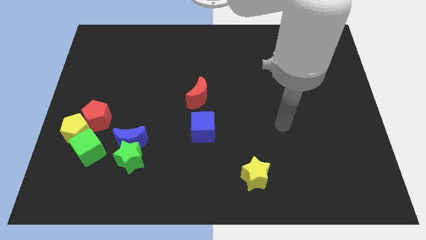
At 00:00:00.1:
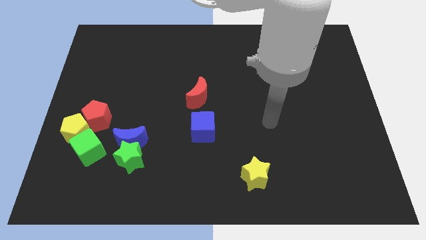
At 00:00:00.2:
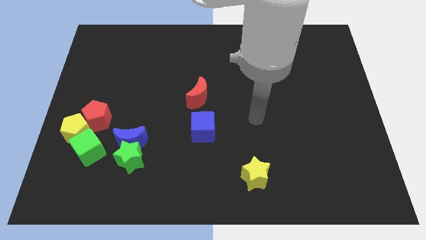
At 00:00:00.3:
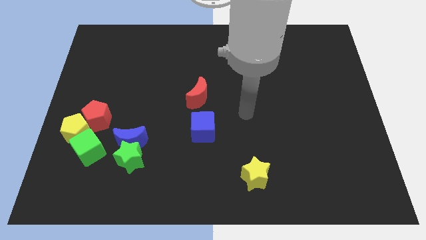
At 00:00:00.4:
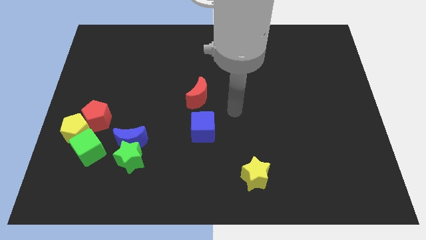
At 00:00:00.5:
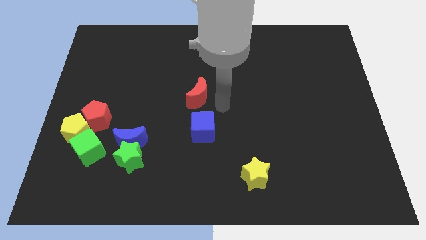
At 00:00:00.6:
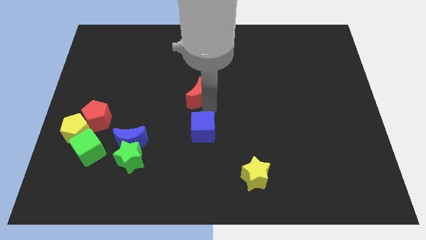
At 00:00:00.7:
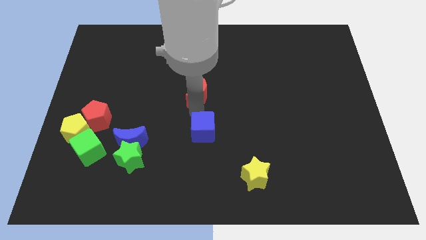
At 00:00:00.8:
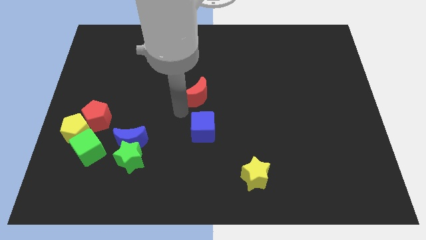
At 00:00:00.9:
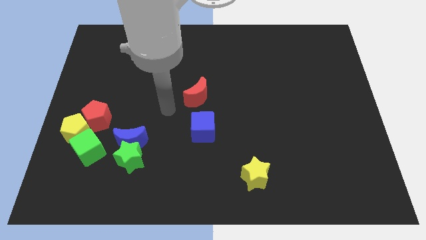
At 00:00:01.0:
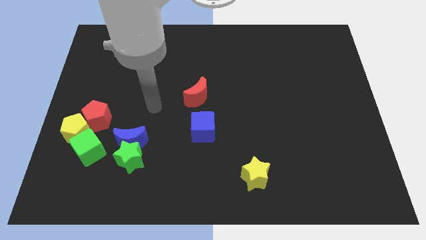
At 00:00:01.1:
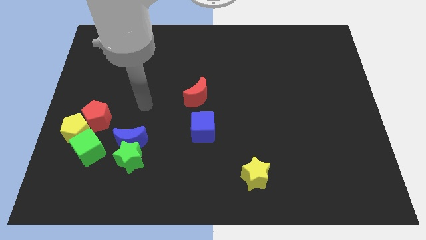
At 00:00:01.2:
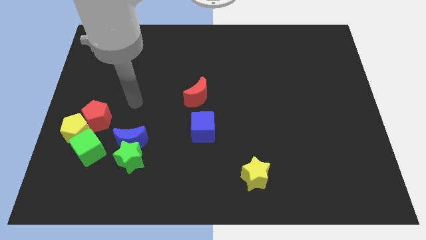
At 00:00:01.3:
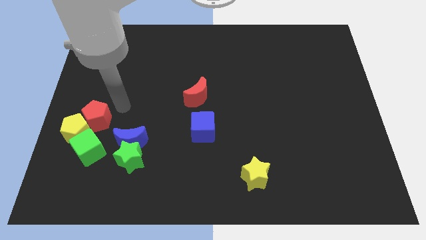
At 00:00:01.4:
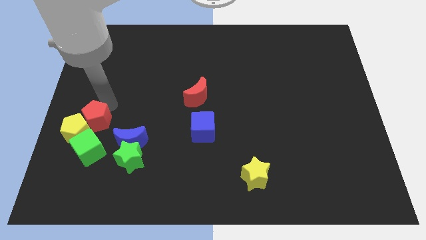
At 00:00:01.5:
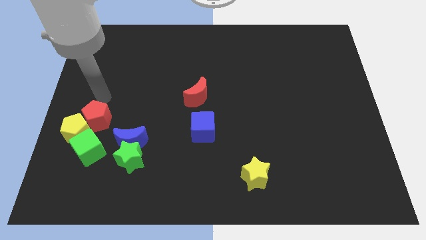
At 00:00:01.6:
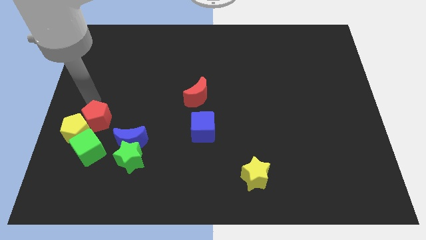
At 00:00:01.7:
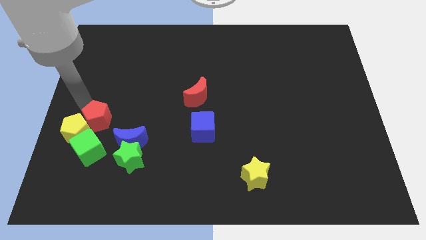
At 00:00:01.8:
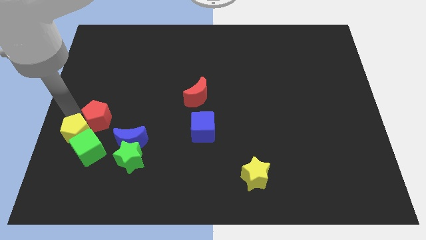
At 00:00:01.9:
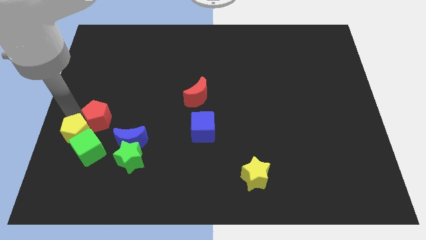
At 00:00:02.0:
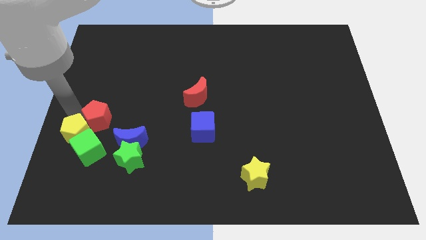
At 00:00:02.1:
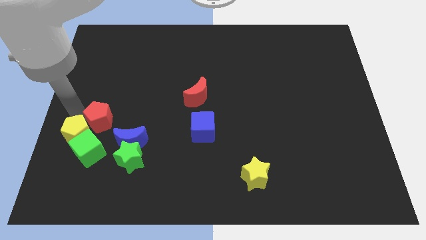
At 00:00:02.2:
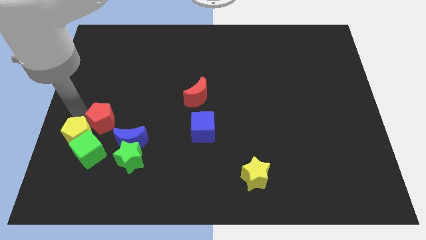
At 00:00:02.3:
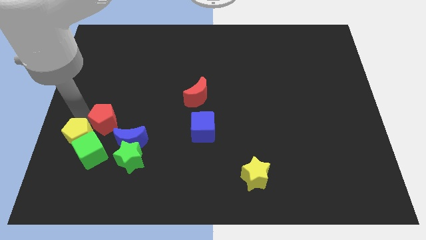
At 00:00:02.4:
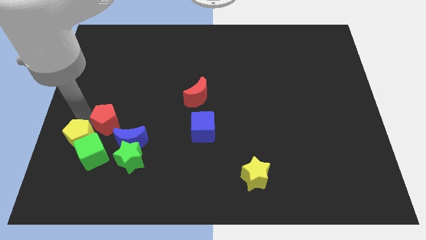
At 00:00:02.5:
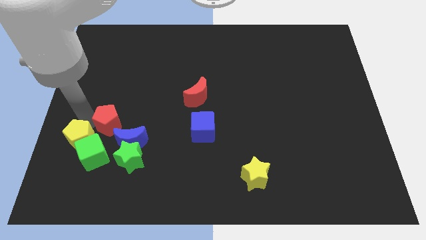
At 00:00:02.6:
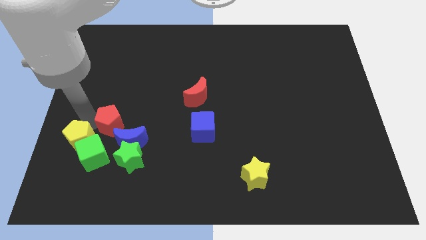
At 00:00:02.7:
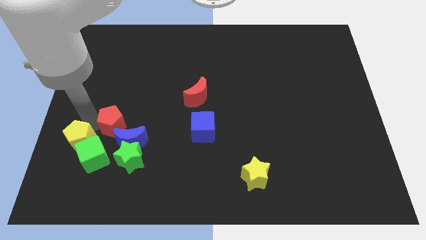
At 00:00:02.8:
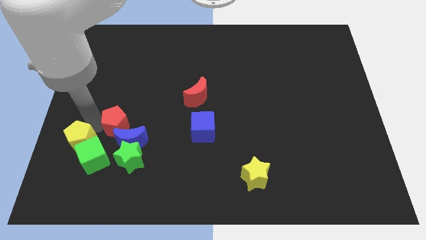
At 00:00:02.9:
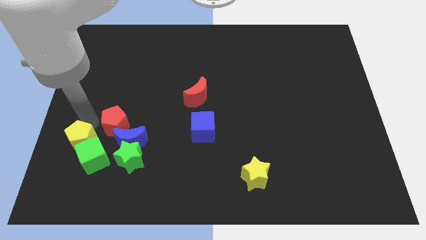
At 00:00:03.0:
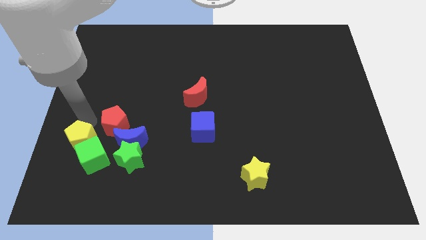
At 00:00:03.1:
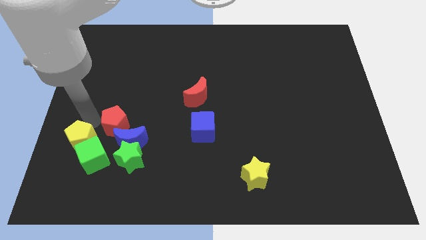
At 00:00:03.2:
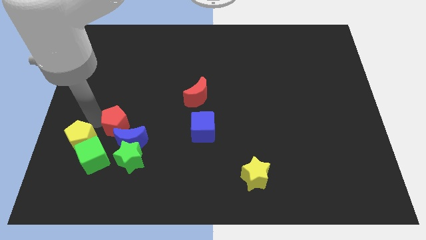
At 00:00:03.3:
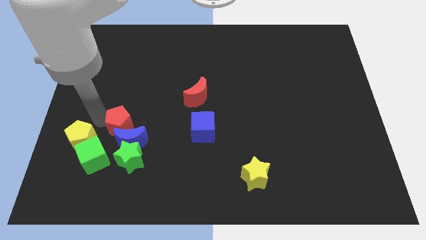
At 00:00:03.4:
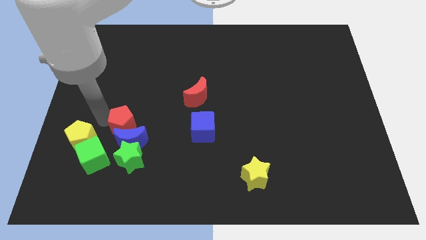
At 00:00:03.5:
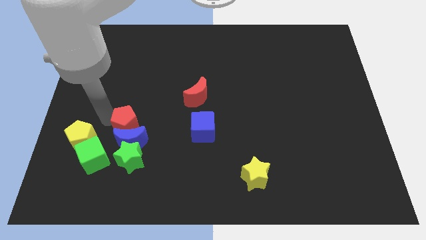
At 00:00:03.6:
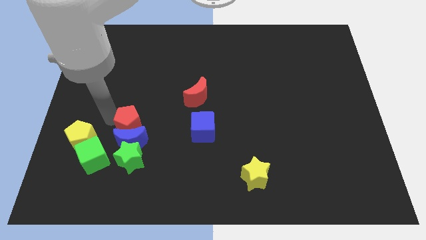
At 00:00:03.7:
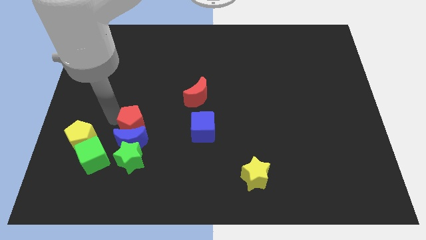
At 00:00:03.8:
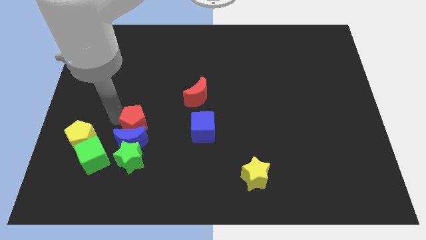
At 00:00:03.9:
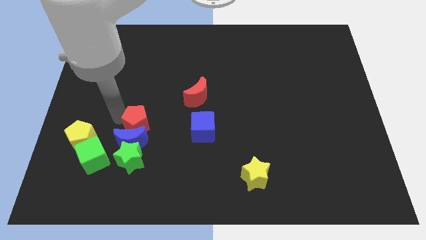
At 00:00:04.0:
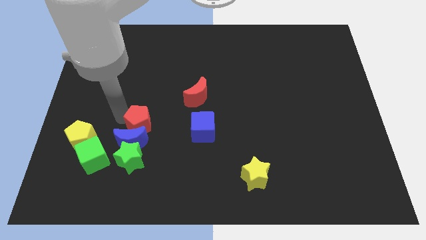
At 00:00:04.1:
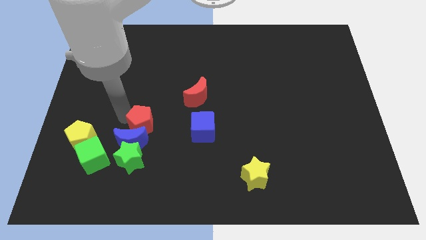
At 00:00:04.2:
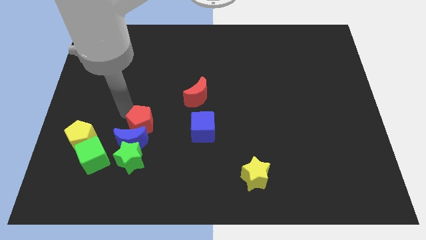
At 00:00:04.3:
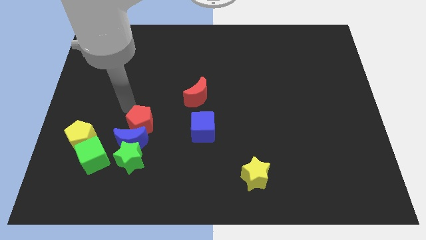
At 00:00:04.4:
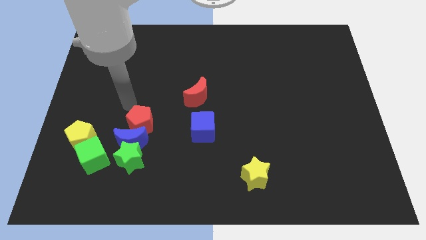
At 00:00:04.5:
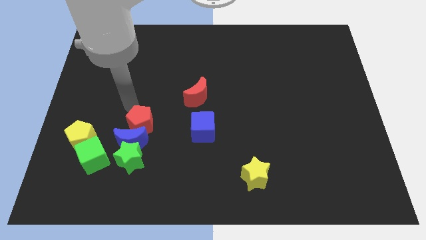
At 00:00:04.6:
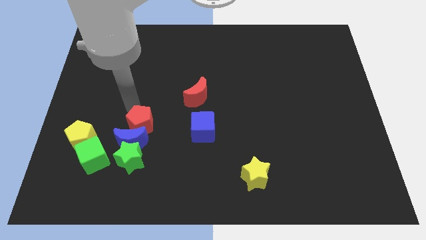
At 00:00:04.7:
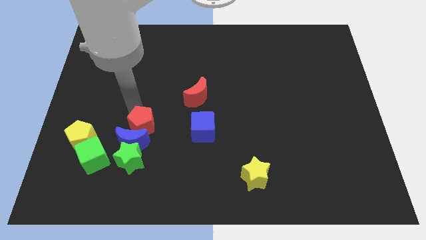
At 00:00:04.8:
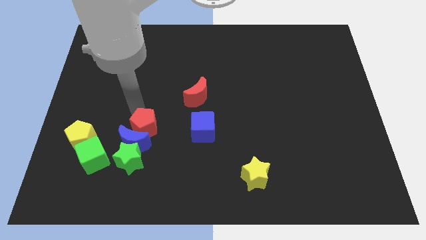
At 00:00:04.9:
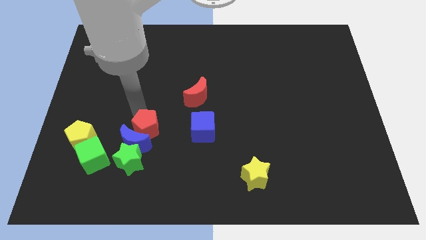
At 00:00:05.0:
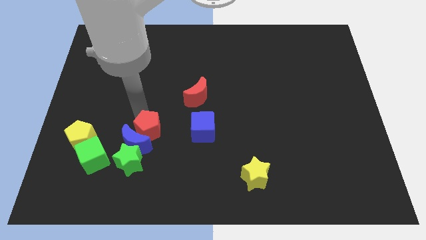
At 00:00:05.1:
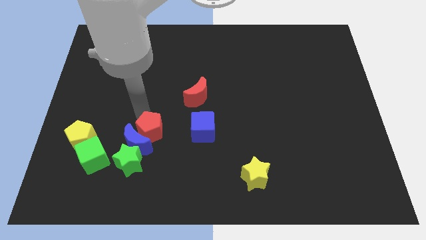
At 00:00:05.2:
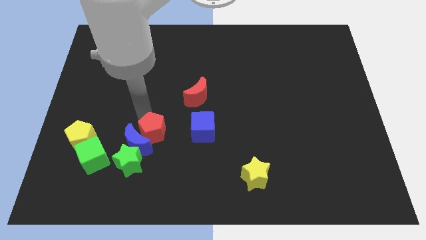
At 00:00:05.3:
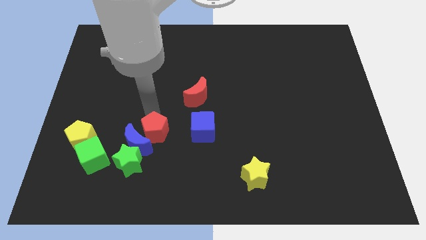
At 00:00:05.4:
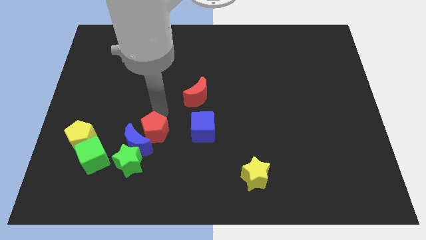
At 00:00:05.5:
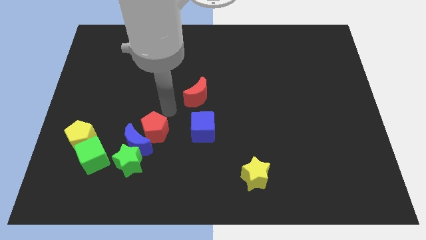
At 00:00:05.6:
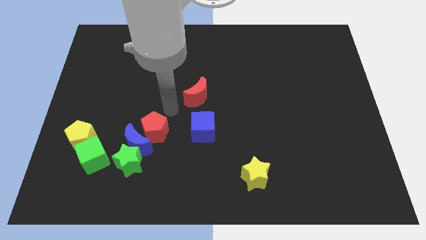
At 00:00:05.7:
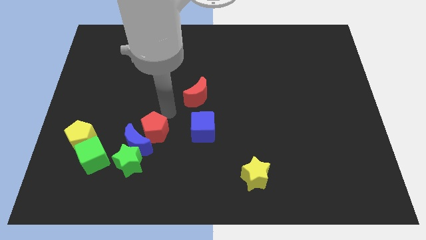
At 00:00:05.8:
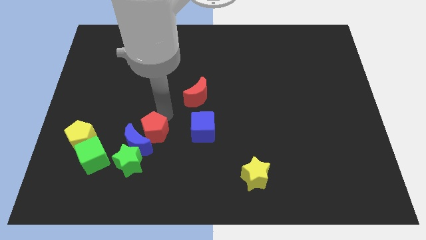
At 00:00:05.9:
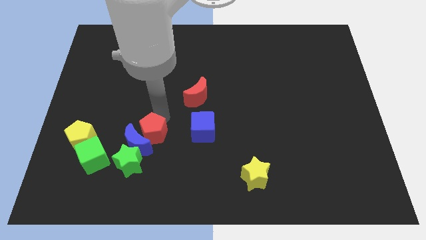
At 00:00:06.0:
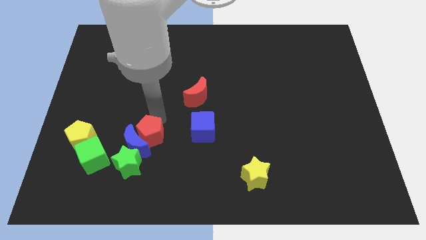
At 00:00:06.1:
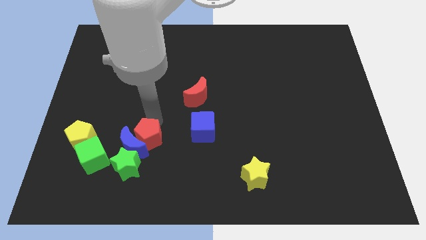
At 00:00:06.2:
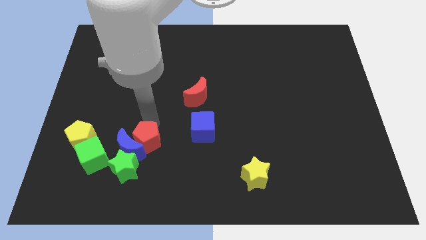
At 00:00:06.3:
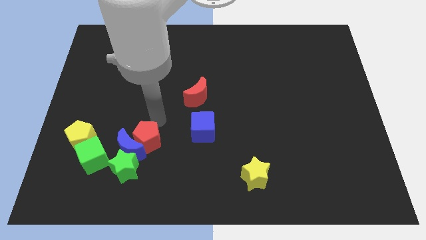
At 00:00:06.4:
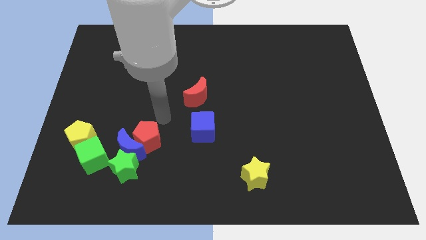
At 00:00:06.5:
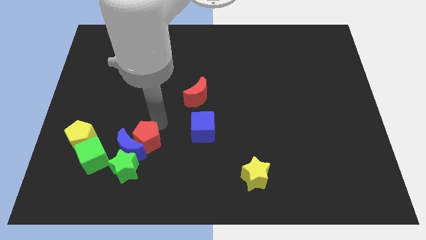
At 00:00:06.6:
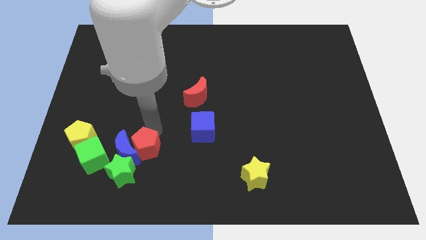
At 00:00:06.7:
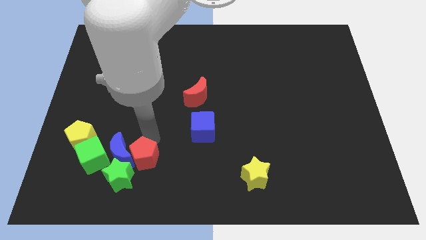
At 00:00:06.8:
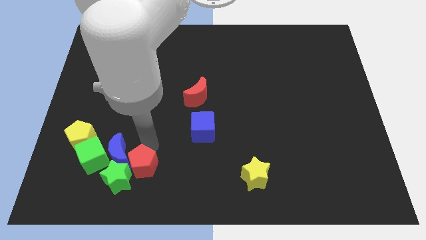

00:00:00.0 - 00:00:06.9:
push the red pentagon towards the green star
